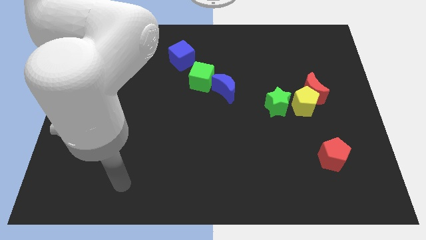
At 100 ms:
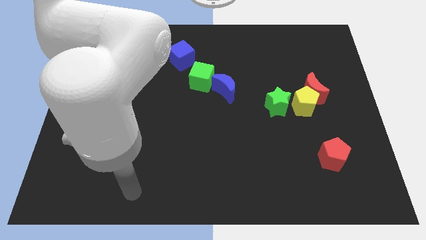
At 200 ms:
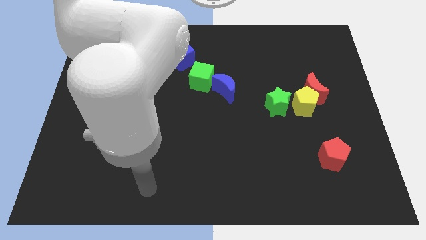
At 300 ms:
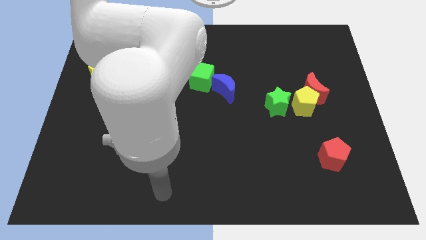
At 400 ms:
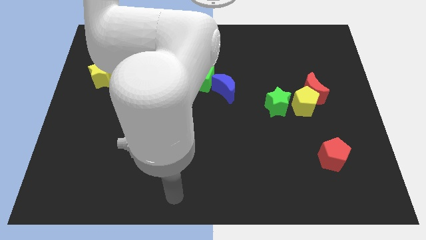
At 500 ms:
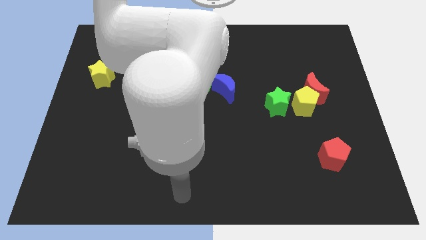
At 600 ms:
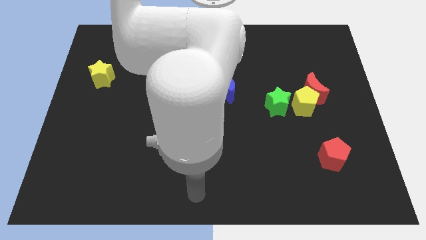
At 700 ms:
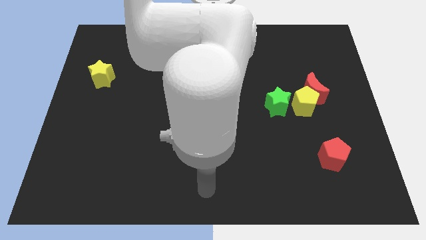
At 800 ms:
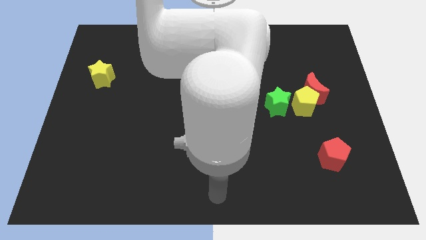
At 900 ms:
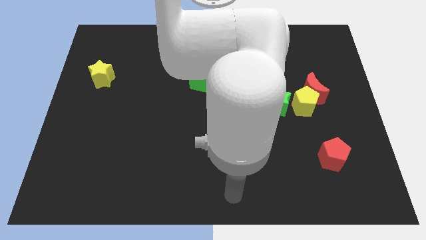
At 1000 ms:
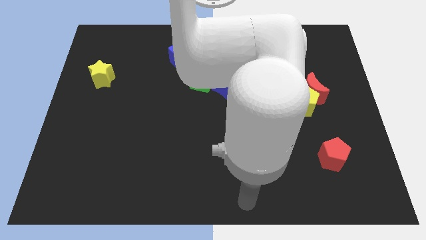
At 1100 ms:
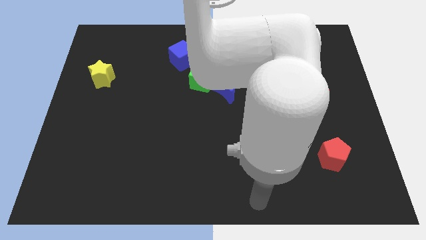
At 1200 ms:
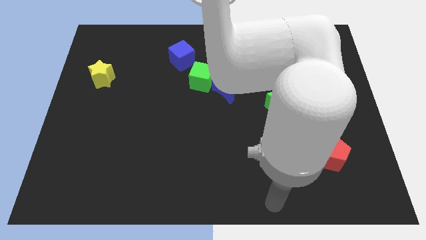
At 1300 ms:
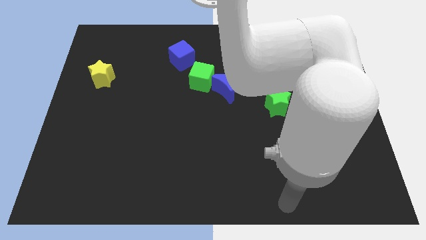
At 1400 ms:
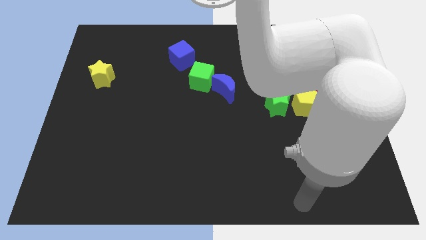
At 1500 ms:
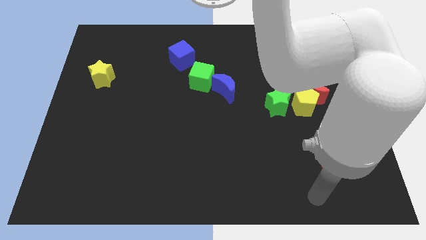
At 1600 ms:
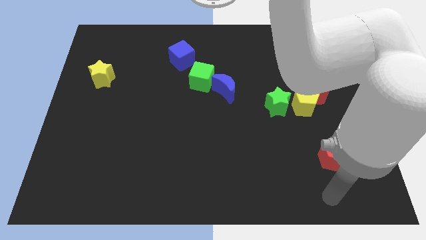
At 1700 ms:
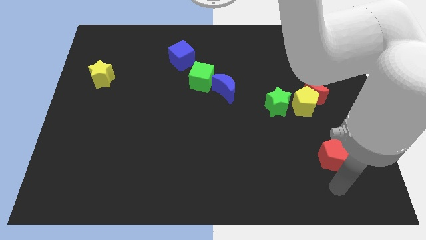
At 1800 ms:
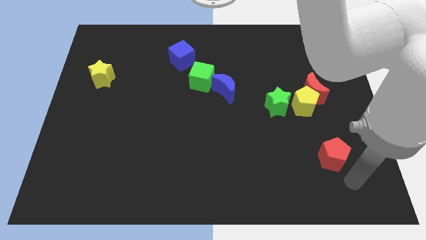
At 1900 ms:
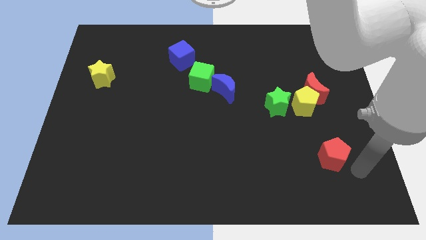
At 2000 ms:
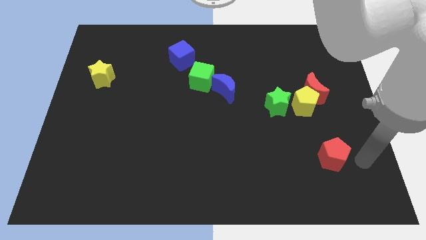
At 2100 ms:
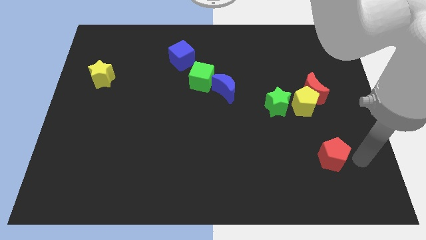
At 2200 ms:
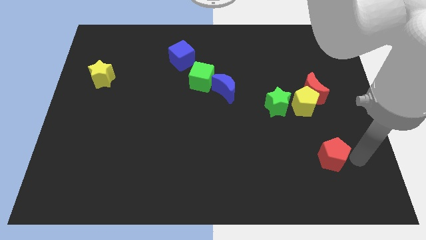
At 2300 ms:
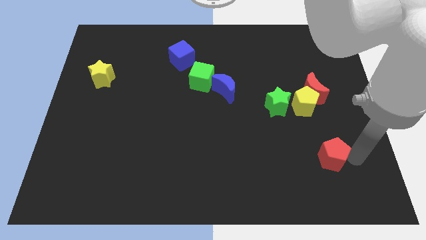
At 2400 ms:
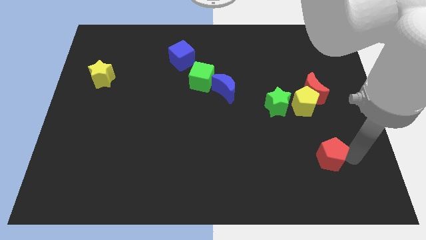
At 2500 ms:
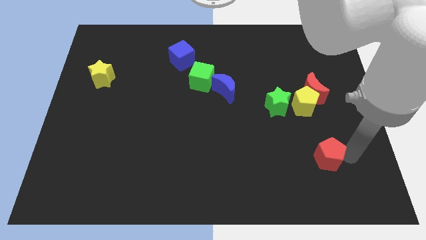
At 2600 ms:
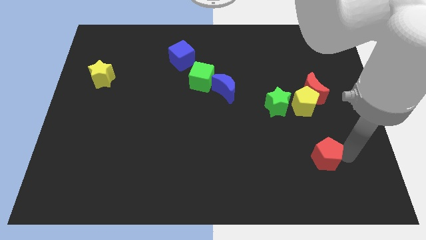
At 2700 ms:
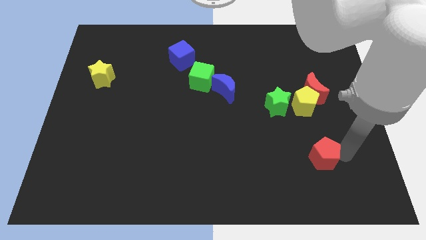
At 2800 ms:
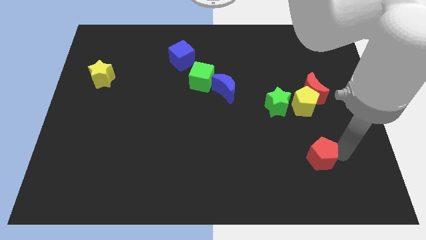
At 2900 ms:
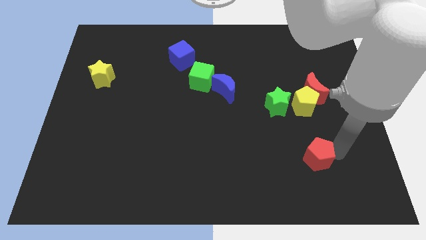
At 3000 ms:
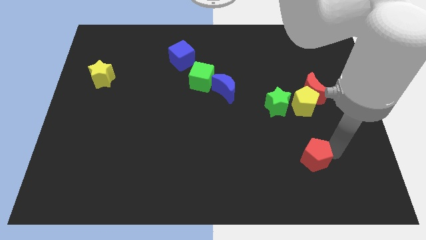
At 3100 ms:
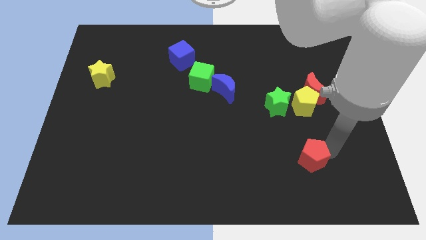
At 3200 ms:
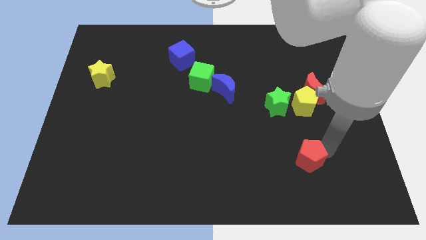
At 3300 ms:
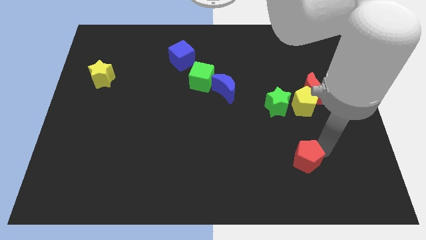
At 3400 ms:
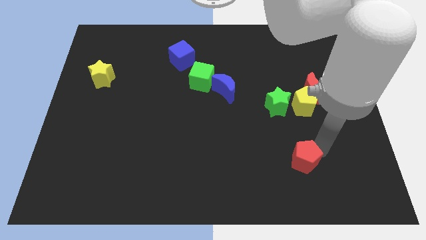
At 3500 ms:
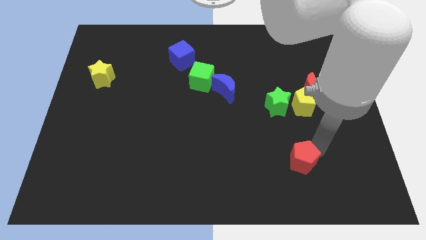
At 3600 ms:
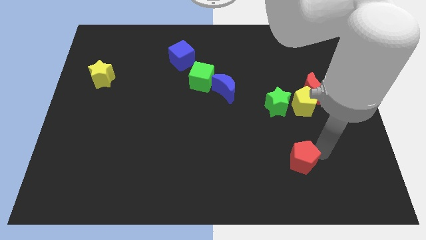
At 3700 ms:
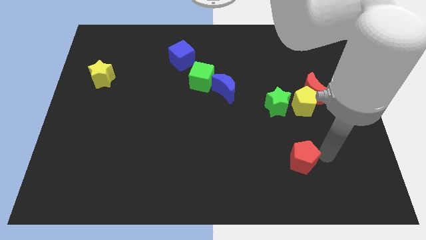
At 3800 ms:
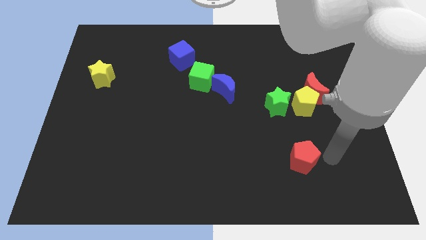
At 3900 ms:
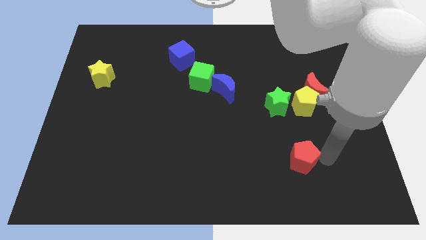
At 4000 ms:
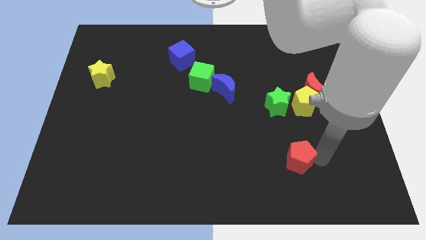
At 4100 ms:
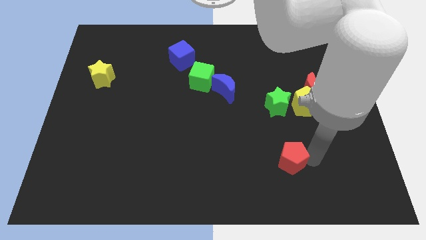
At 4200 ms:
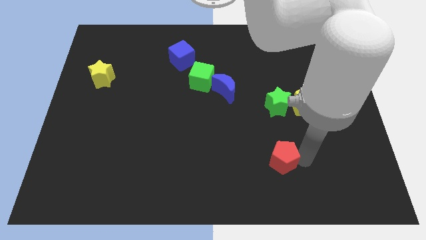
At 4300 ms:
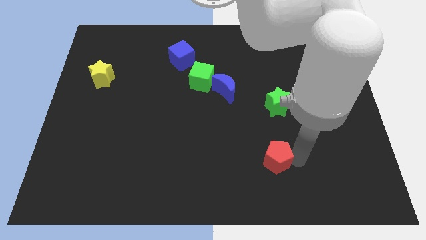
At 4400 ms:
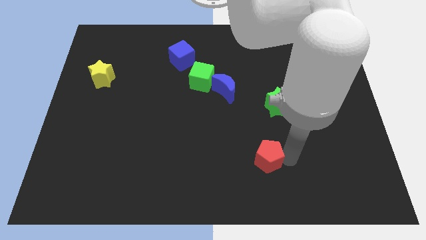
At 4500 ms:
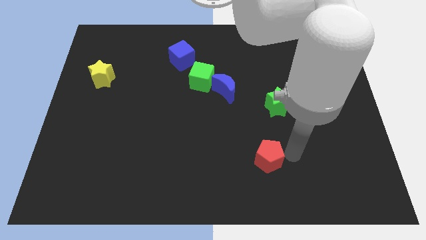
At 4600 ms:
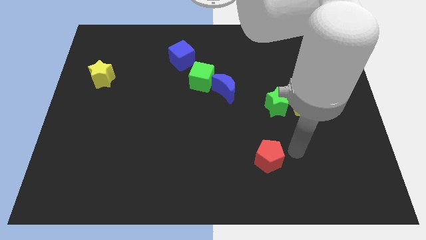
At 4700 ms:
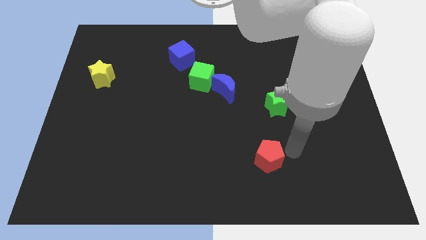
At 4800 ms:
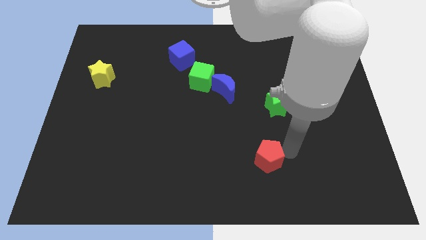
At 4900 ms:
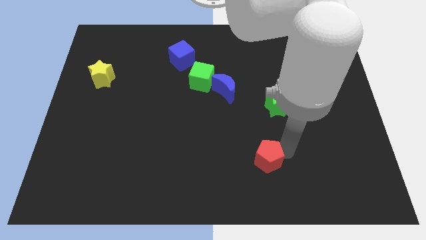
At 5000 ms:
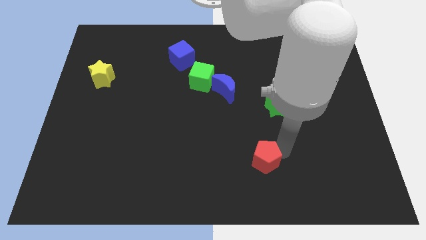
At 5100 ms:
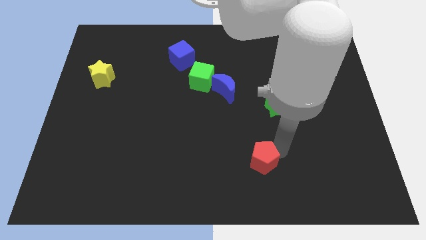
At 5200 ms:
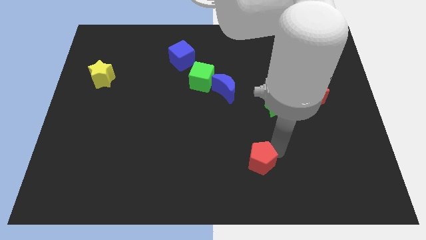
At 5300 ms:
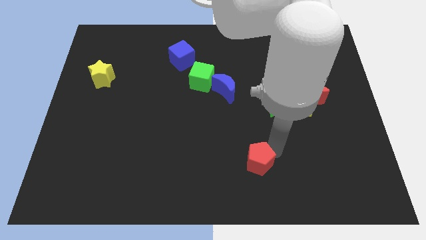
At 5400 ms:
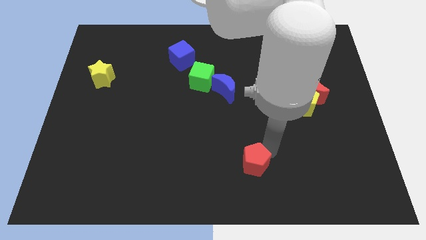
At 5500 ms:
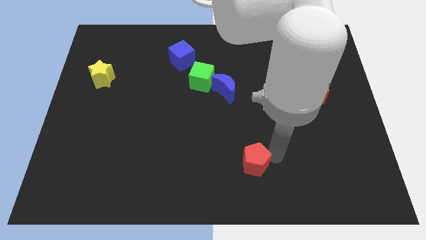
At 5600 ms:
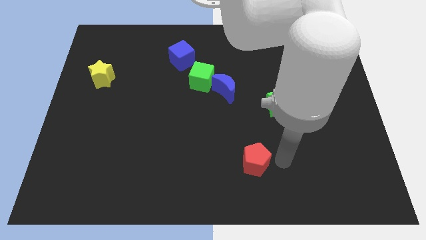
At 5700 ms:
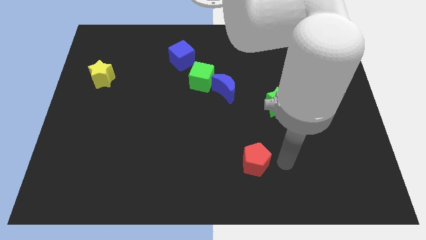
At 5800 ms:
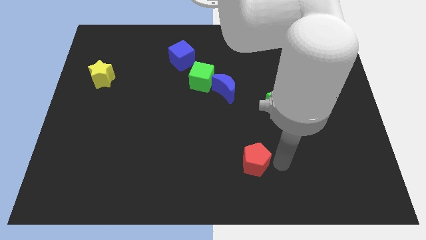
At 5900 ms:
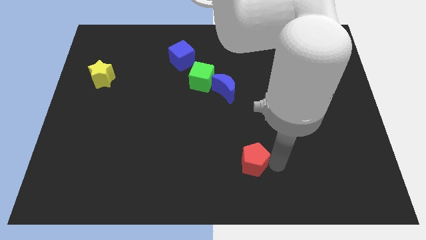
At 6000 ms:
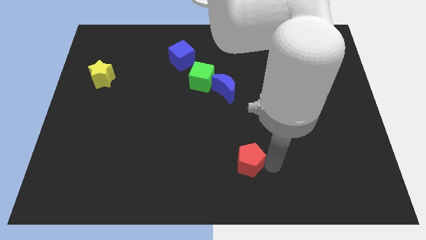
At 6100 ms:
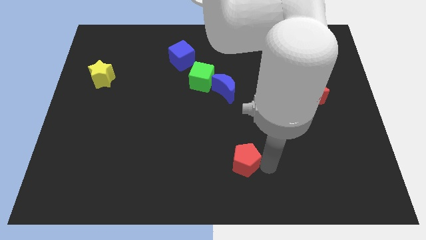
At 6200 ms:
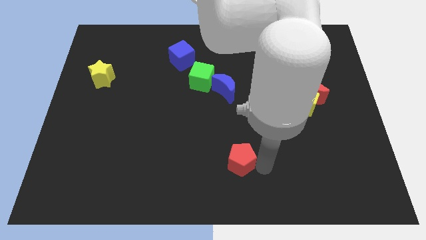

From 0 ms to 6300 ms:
move the red pentagon left

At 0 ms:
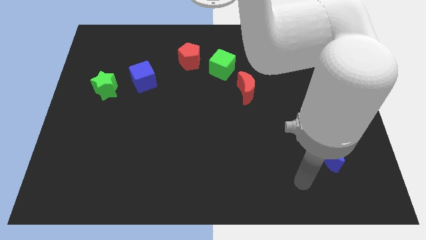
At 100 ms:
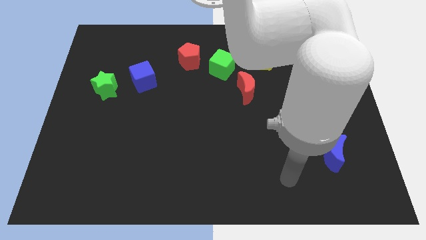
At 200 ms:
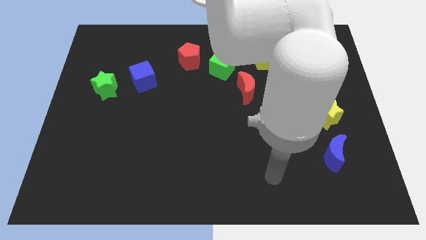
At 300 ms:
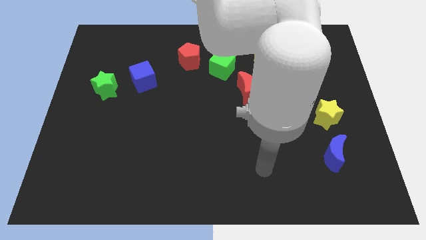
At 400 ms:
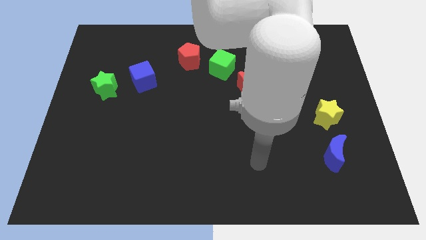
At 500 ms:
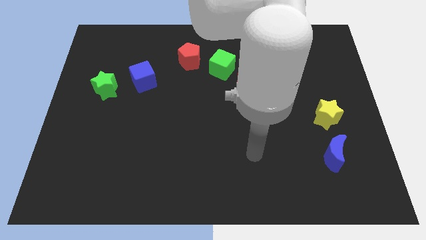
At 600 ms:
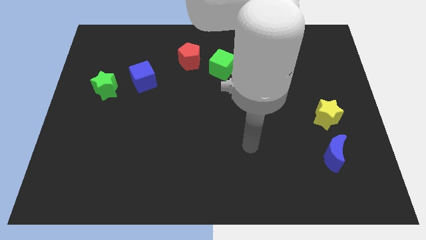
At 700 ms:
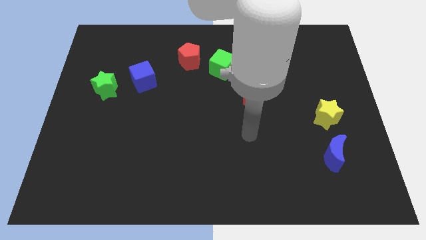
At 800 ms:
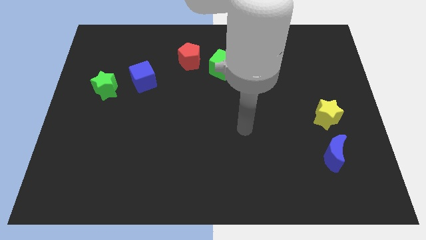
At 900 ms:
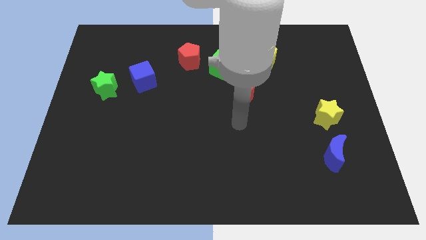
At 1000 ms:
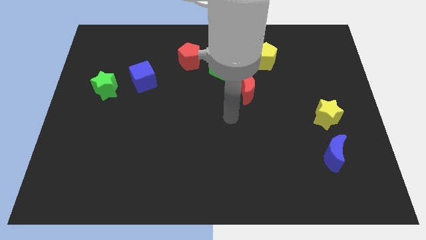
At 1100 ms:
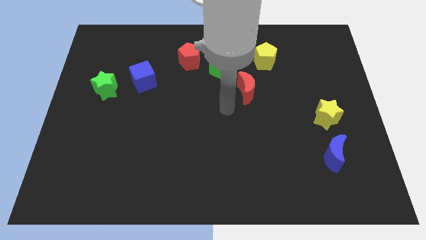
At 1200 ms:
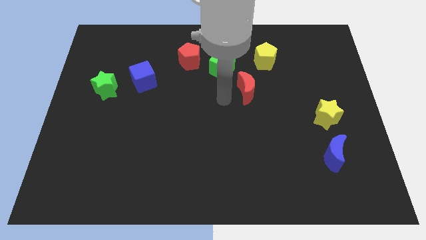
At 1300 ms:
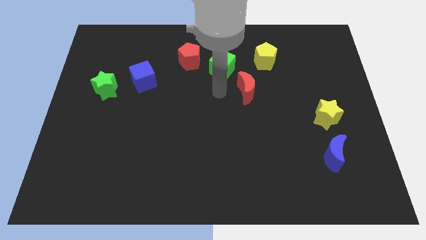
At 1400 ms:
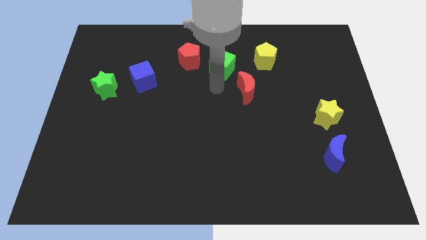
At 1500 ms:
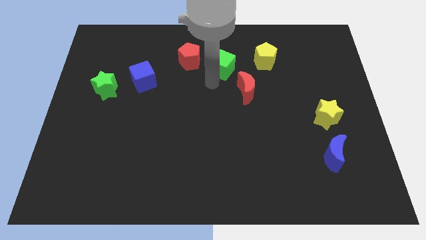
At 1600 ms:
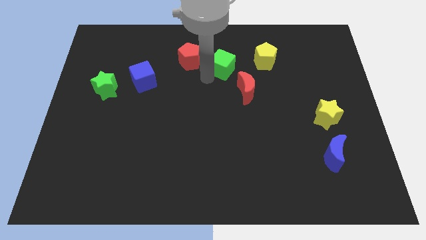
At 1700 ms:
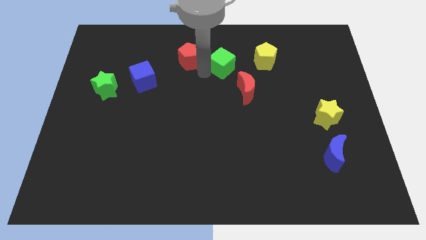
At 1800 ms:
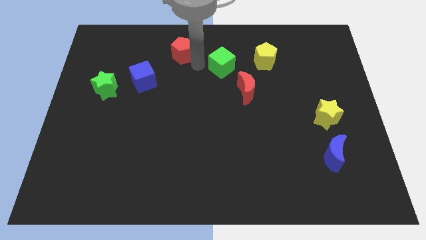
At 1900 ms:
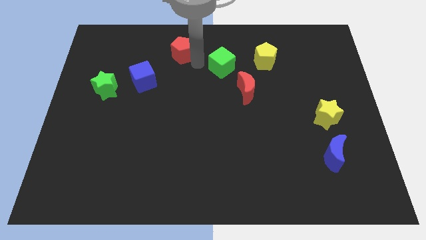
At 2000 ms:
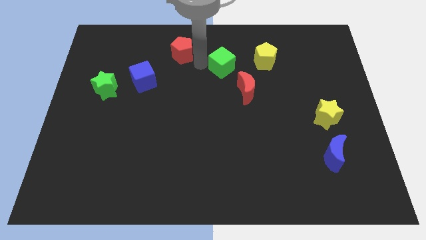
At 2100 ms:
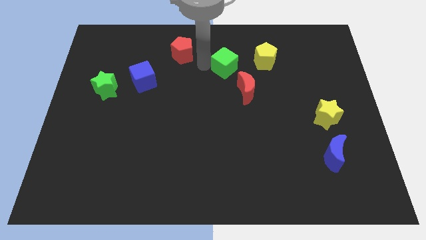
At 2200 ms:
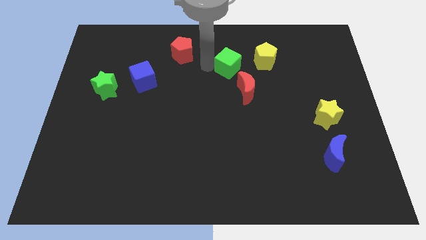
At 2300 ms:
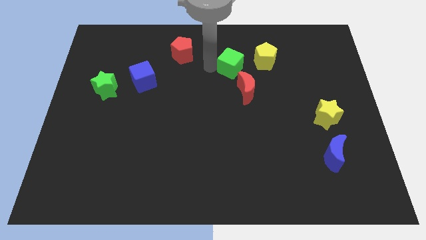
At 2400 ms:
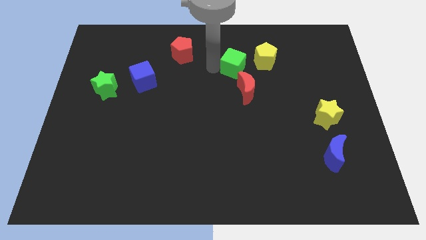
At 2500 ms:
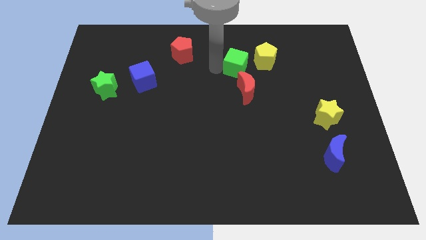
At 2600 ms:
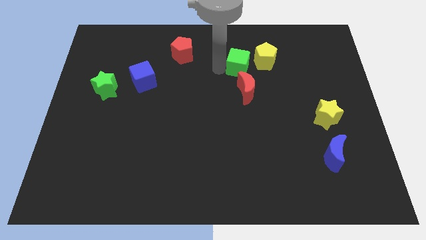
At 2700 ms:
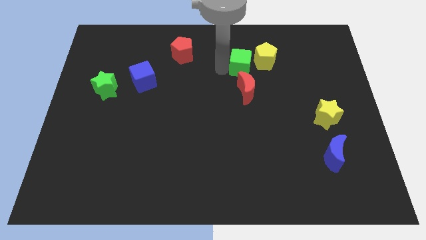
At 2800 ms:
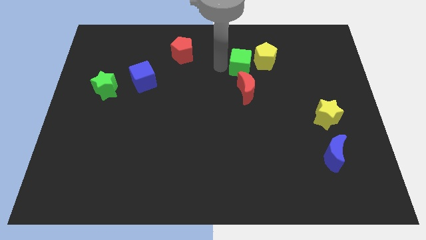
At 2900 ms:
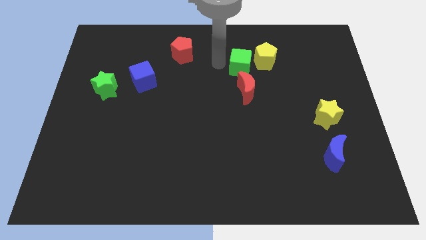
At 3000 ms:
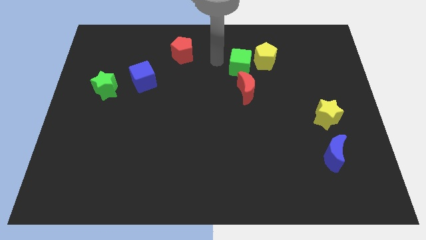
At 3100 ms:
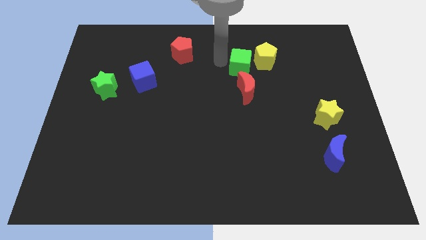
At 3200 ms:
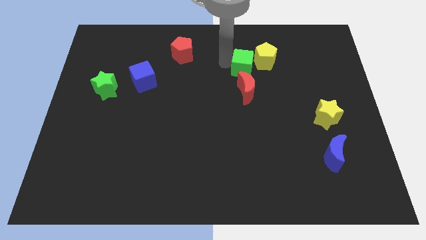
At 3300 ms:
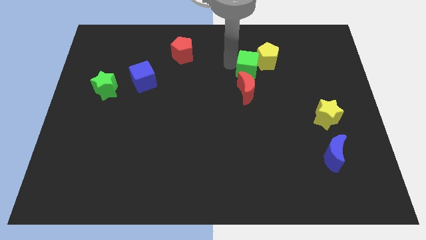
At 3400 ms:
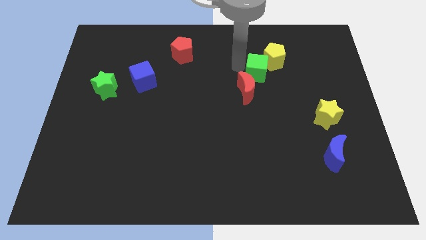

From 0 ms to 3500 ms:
move the green cube to the right a little
